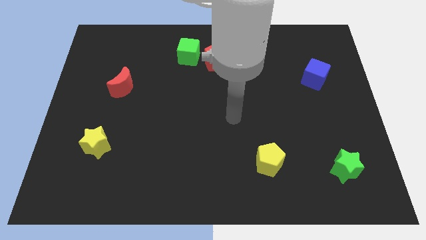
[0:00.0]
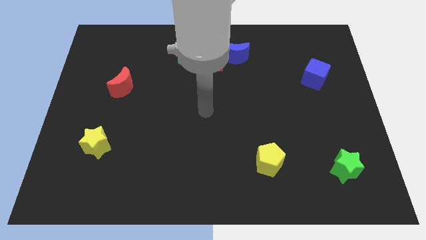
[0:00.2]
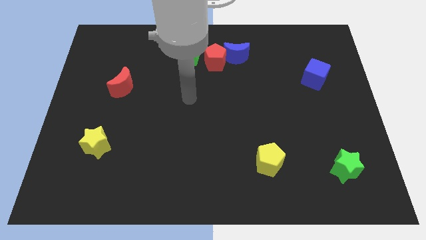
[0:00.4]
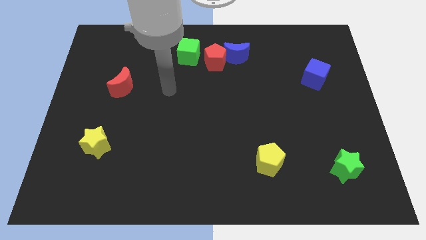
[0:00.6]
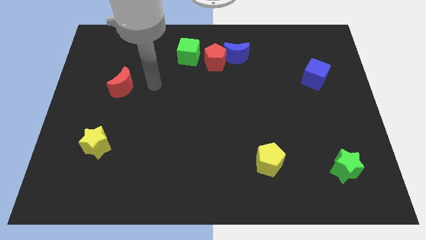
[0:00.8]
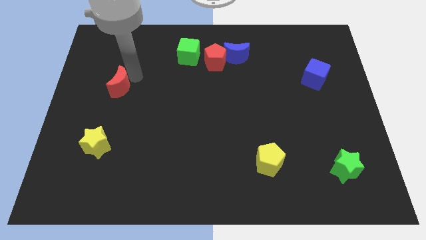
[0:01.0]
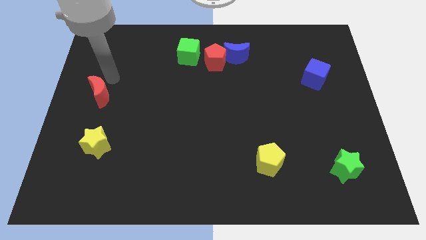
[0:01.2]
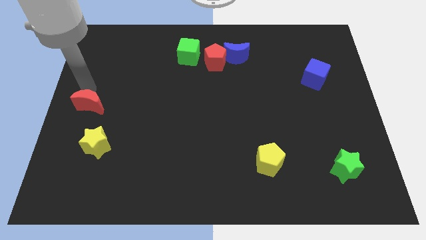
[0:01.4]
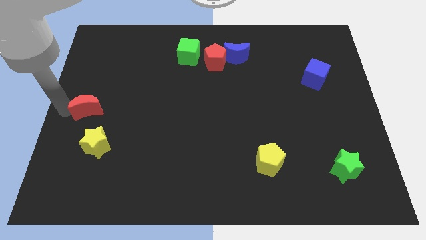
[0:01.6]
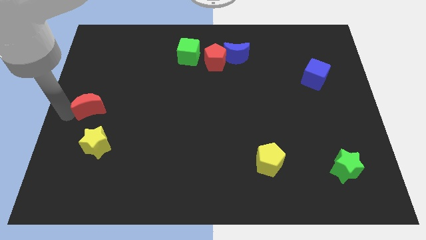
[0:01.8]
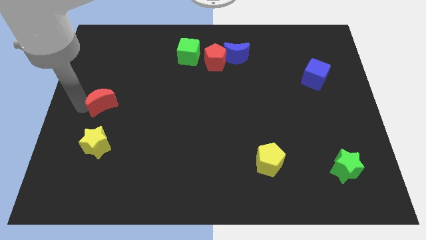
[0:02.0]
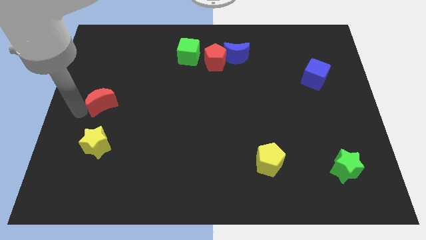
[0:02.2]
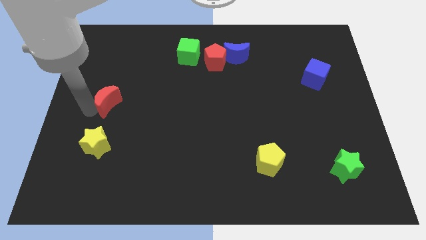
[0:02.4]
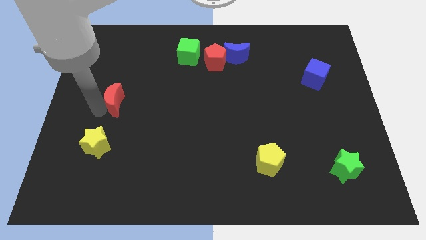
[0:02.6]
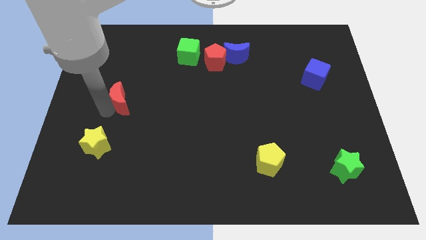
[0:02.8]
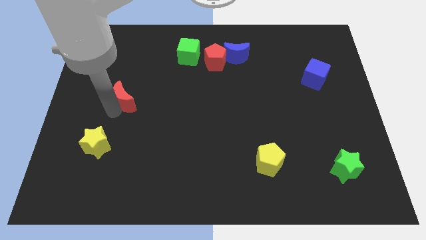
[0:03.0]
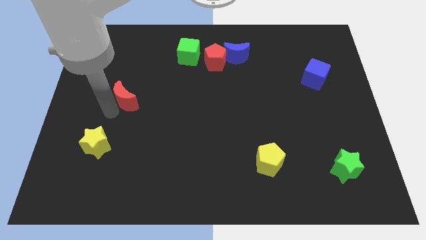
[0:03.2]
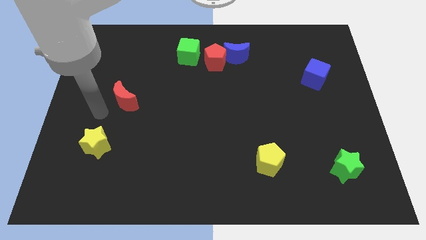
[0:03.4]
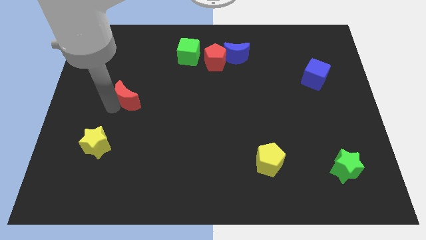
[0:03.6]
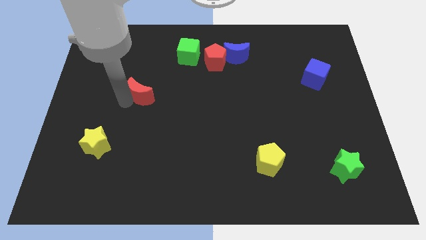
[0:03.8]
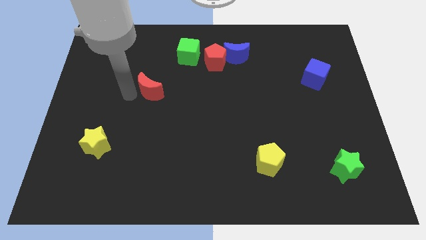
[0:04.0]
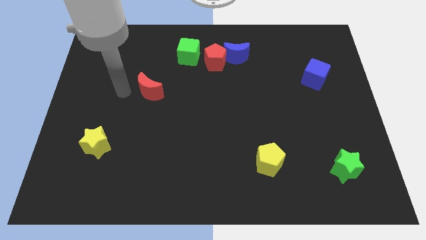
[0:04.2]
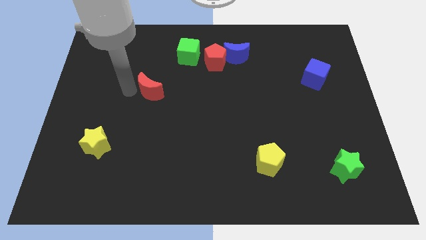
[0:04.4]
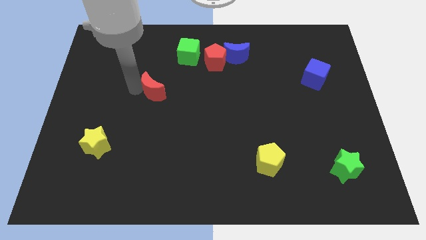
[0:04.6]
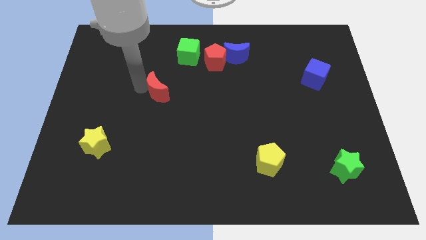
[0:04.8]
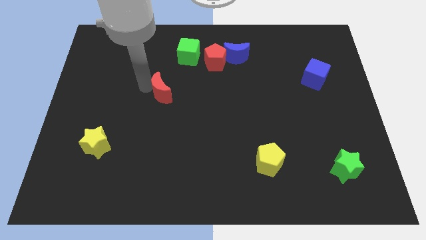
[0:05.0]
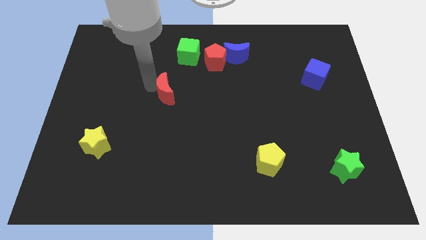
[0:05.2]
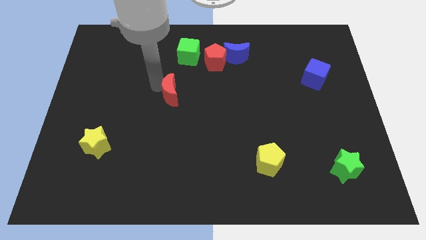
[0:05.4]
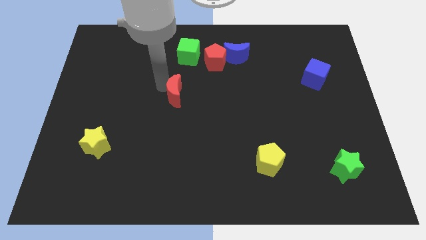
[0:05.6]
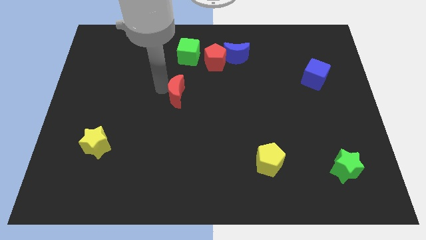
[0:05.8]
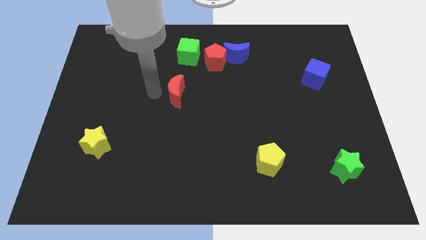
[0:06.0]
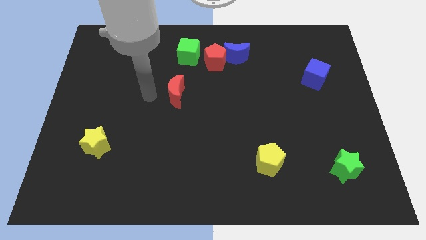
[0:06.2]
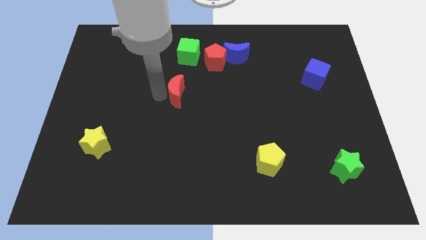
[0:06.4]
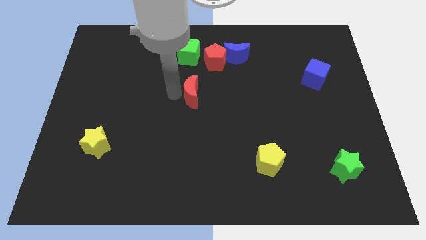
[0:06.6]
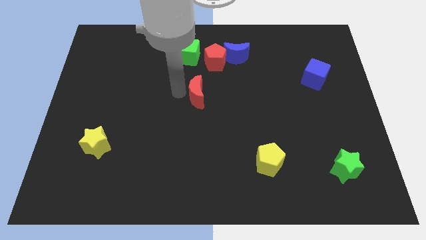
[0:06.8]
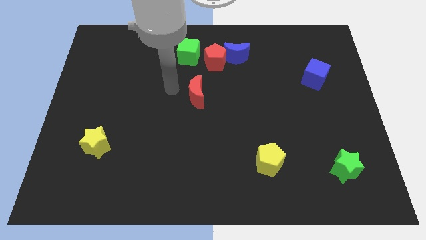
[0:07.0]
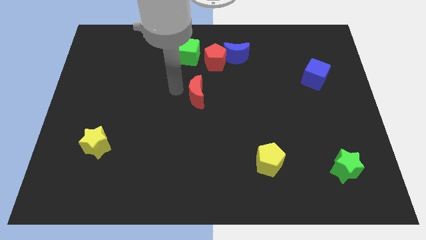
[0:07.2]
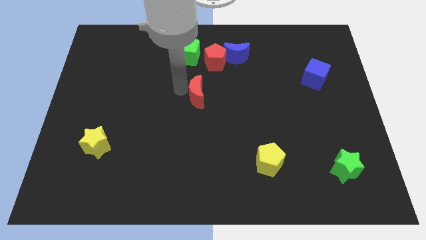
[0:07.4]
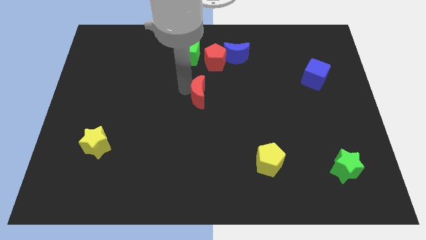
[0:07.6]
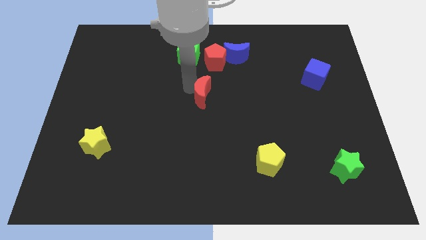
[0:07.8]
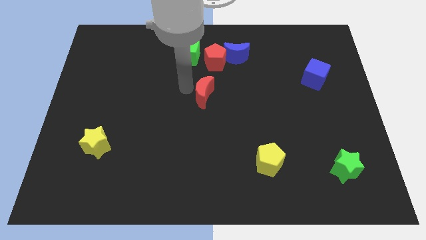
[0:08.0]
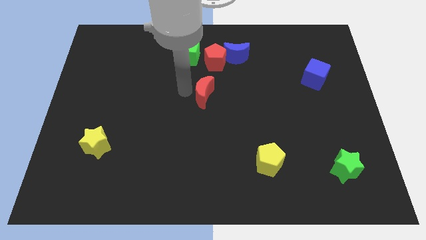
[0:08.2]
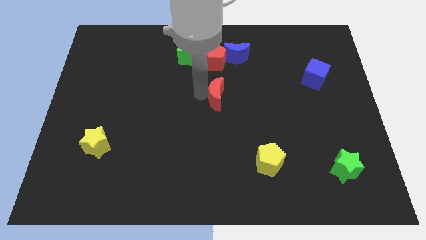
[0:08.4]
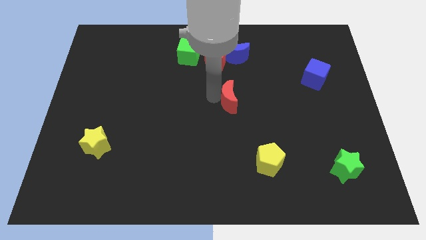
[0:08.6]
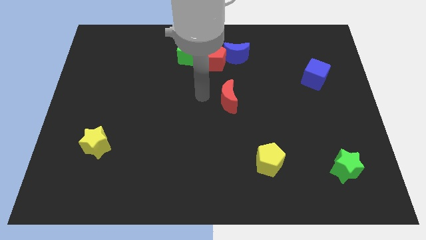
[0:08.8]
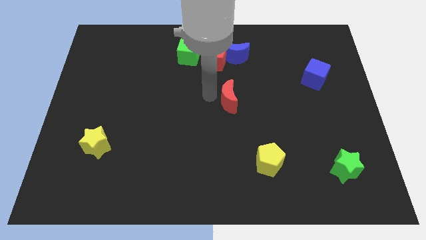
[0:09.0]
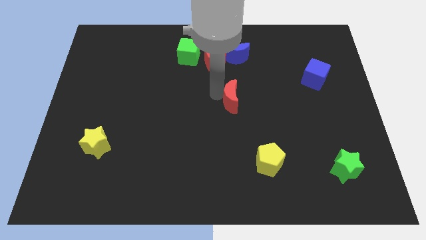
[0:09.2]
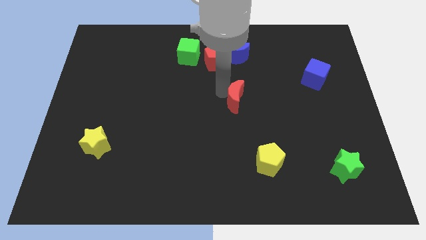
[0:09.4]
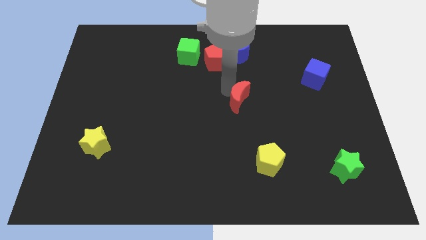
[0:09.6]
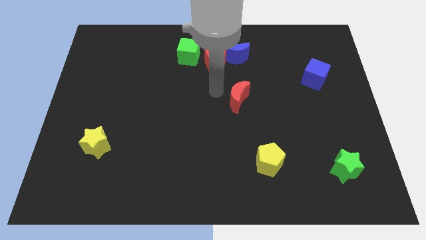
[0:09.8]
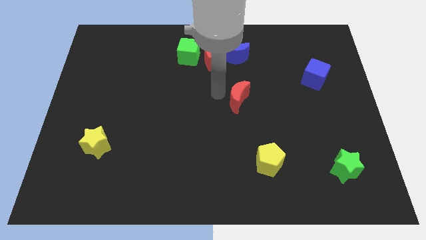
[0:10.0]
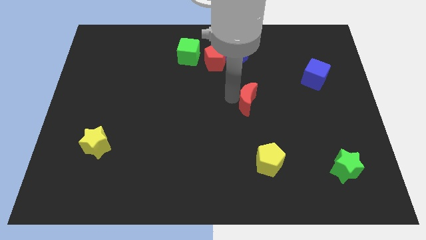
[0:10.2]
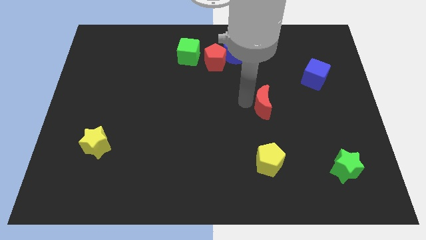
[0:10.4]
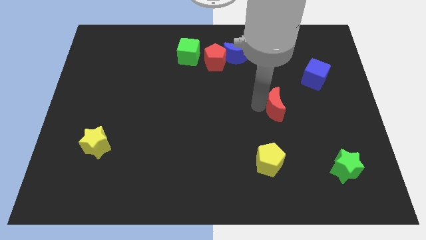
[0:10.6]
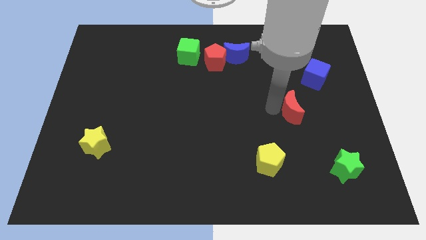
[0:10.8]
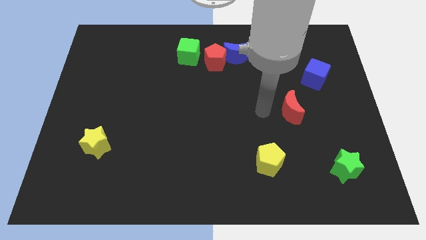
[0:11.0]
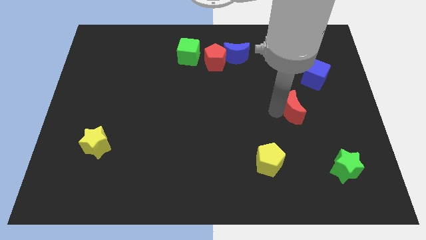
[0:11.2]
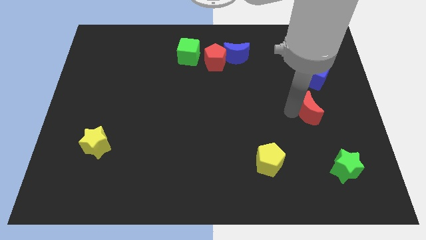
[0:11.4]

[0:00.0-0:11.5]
slide the red moon below the blue cube
